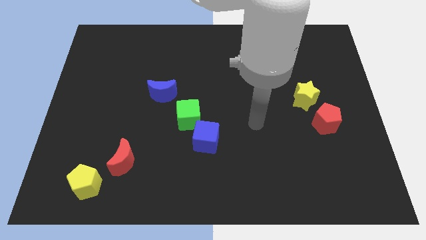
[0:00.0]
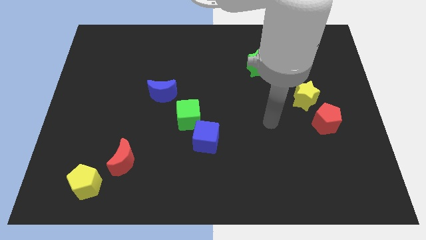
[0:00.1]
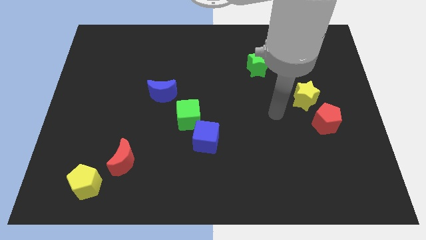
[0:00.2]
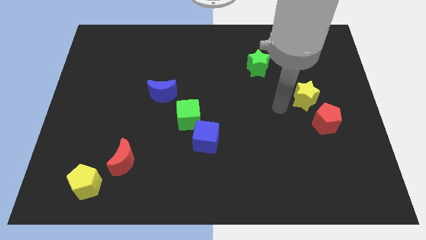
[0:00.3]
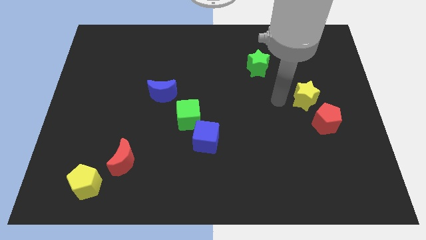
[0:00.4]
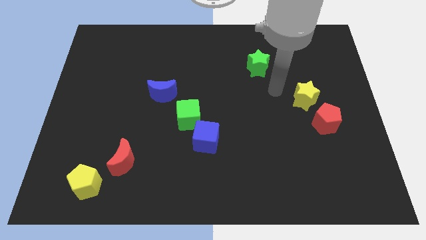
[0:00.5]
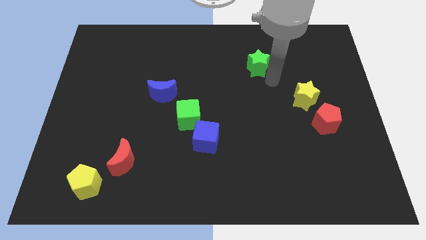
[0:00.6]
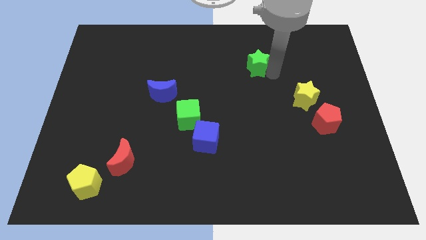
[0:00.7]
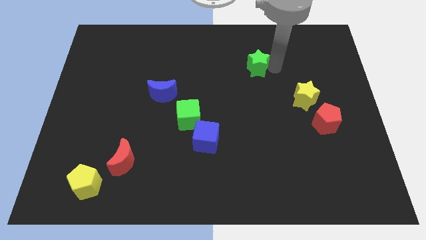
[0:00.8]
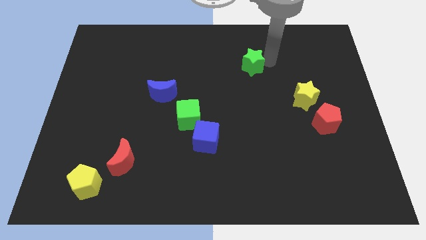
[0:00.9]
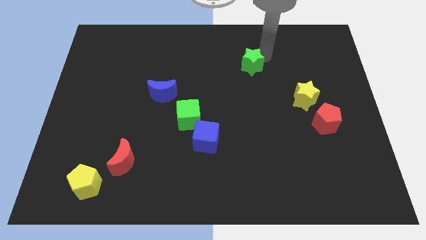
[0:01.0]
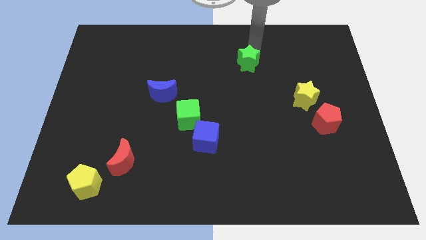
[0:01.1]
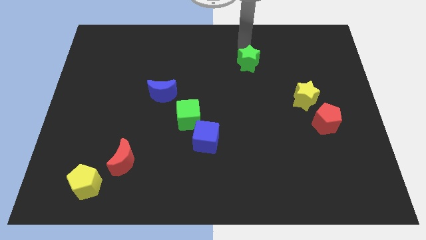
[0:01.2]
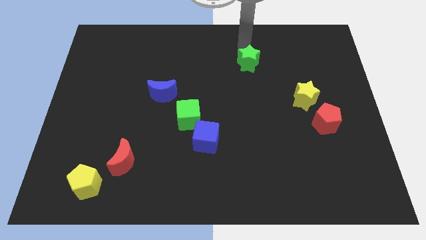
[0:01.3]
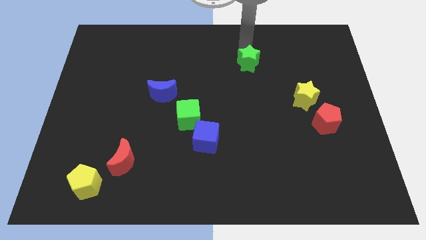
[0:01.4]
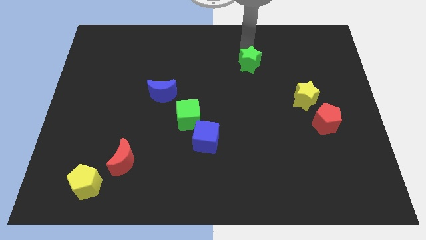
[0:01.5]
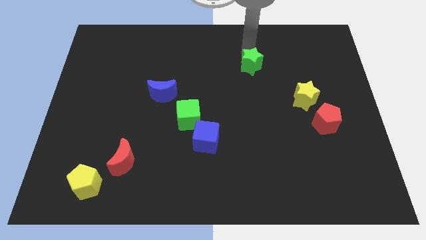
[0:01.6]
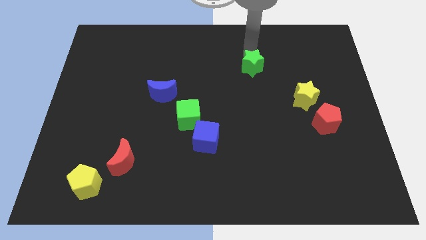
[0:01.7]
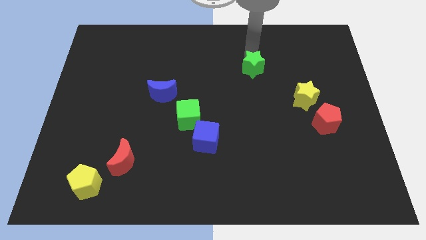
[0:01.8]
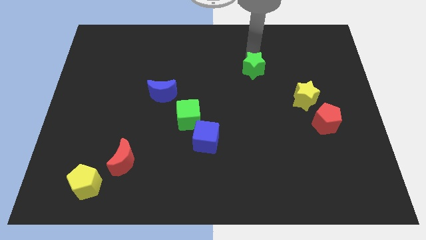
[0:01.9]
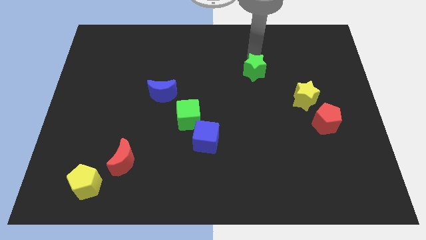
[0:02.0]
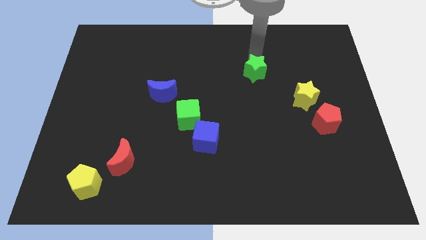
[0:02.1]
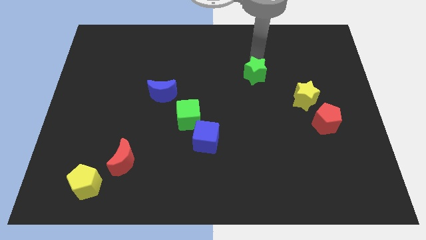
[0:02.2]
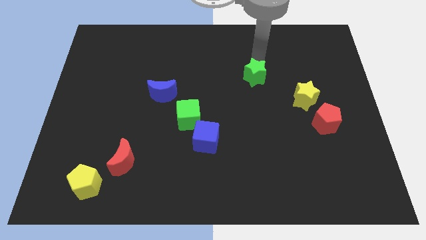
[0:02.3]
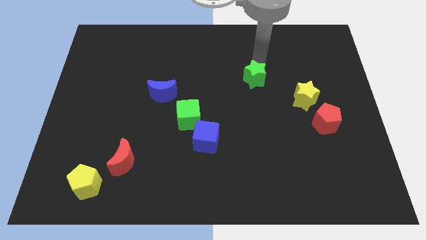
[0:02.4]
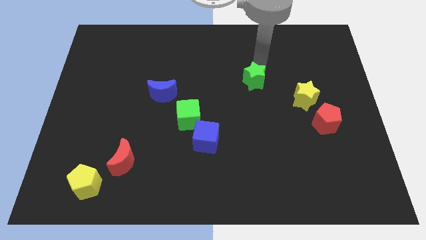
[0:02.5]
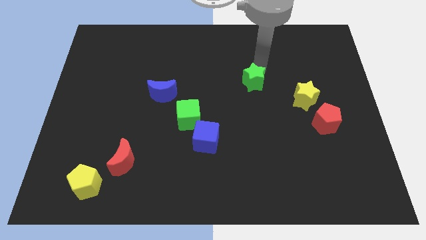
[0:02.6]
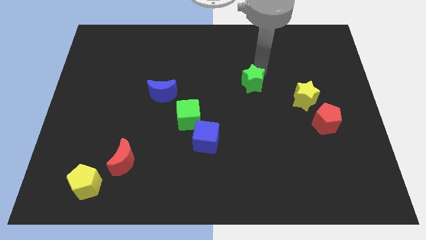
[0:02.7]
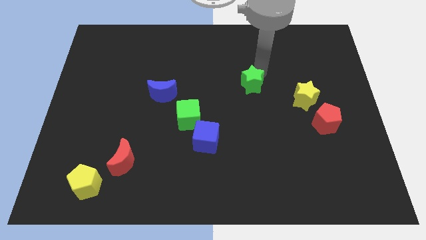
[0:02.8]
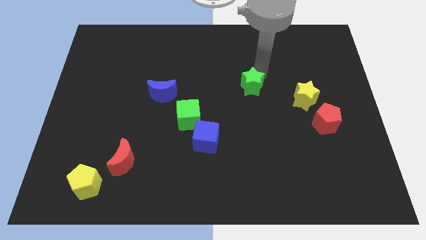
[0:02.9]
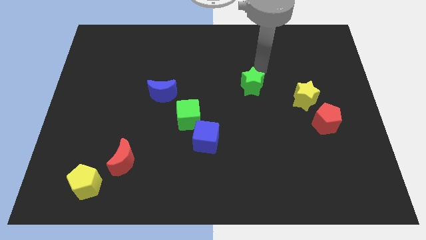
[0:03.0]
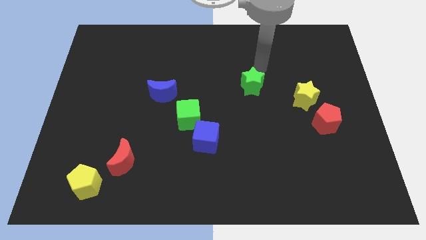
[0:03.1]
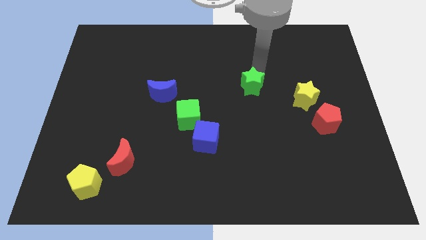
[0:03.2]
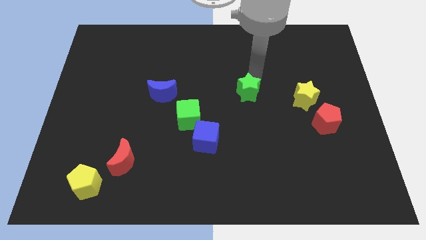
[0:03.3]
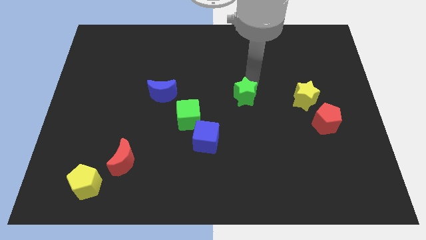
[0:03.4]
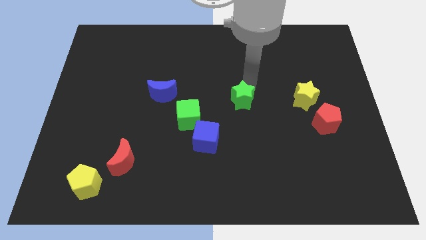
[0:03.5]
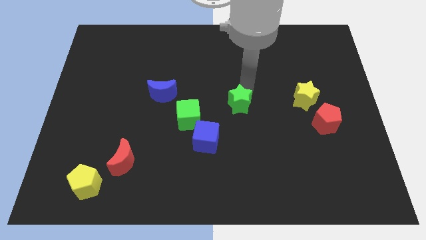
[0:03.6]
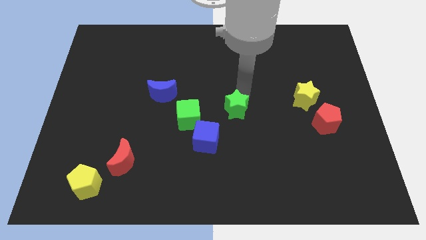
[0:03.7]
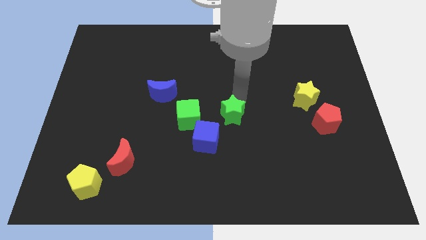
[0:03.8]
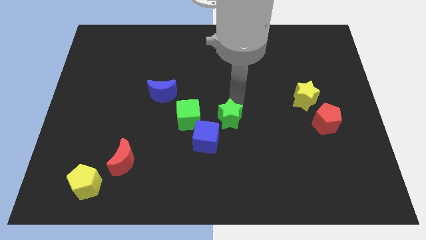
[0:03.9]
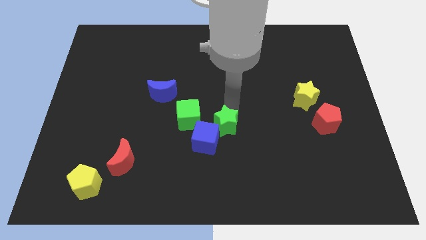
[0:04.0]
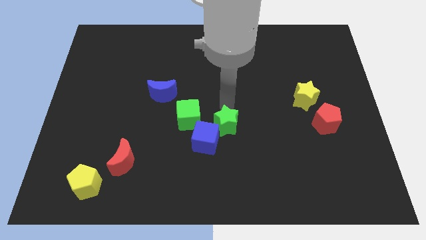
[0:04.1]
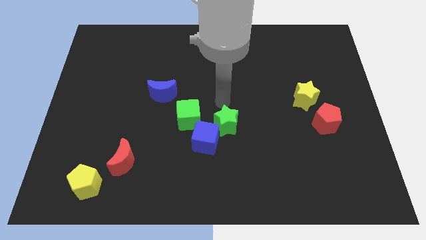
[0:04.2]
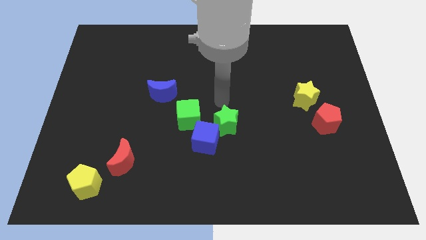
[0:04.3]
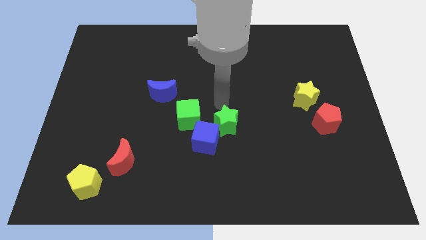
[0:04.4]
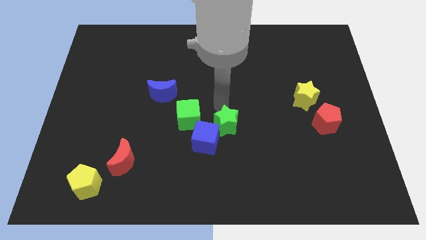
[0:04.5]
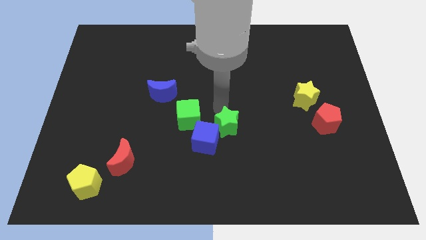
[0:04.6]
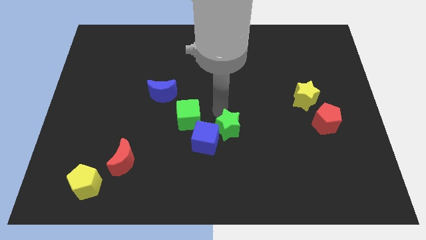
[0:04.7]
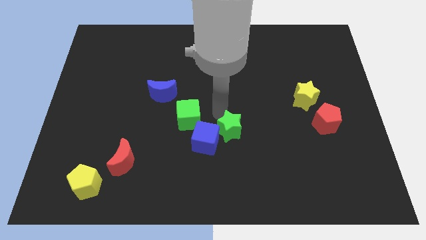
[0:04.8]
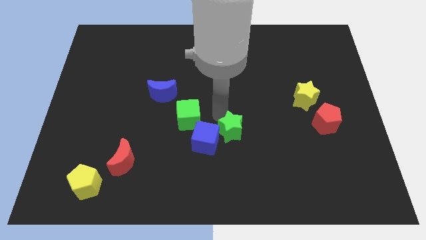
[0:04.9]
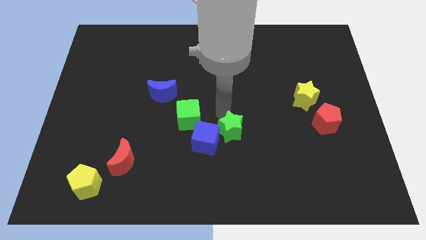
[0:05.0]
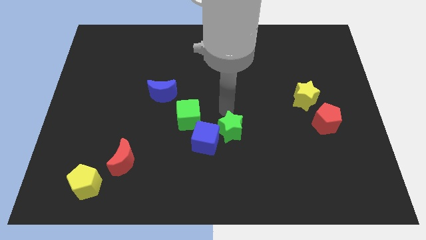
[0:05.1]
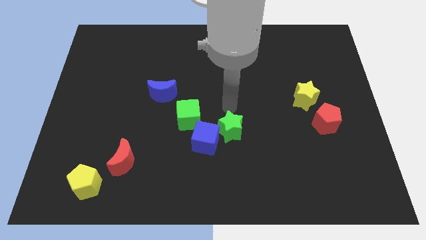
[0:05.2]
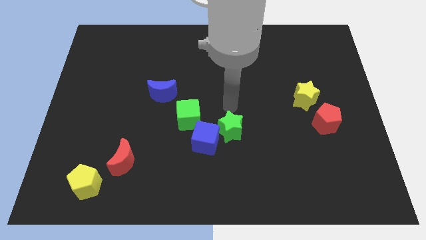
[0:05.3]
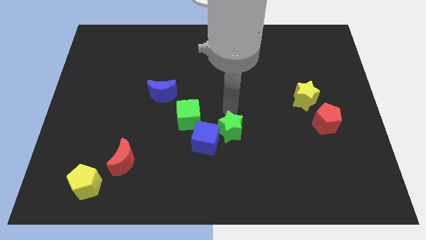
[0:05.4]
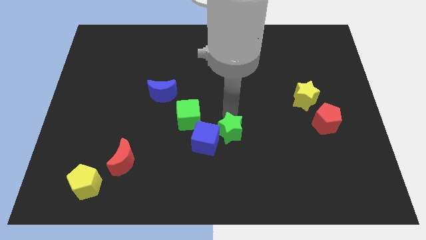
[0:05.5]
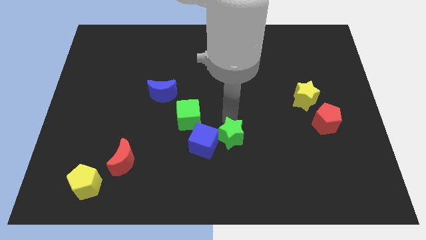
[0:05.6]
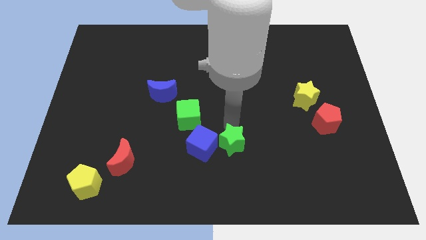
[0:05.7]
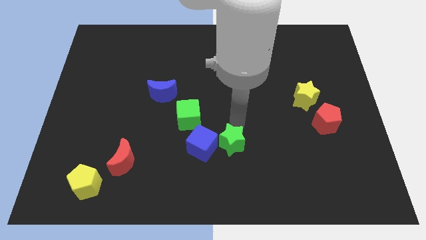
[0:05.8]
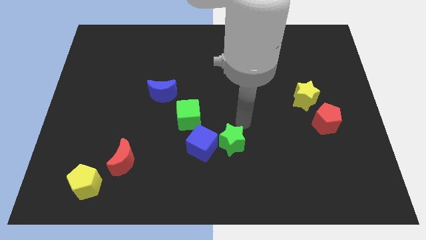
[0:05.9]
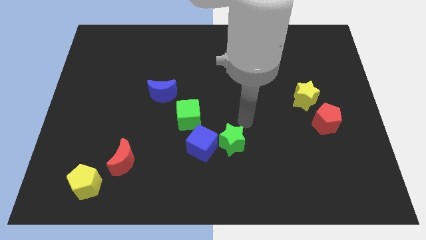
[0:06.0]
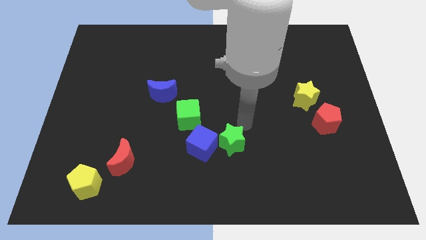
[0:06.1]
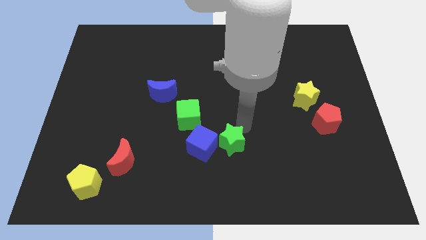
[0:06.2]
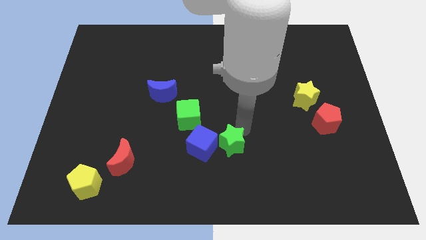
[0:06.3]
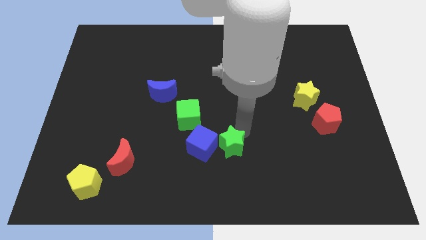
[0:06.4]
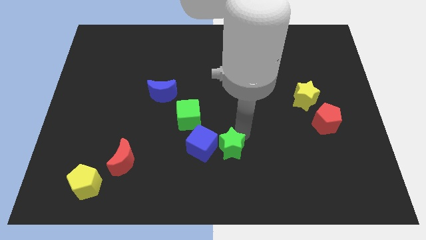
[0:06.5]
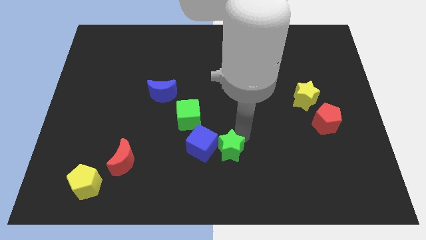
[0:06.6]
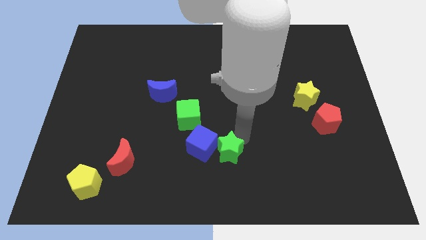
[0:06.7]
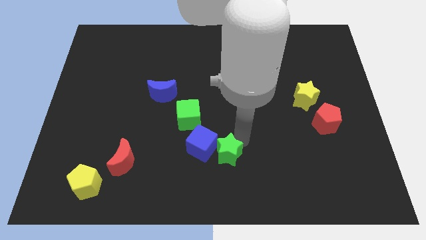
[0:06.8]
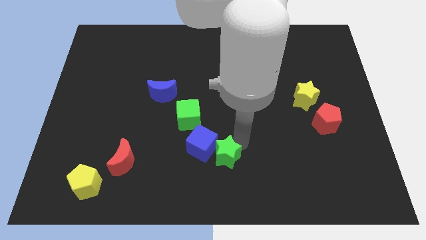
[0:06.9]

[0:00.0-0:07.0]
slide the green star to the bottom

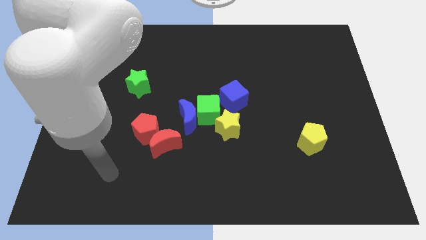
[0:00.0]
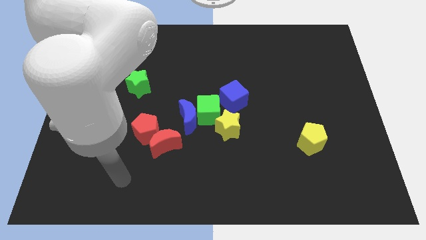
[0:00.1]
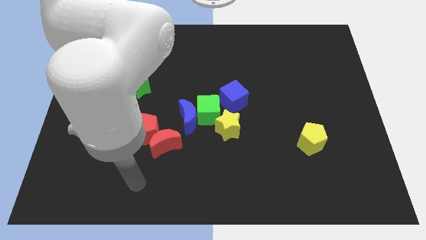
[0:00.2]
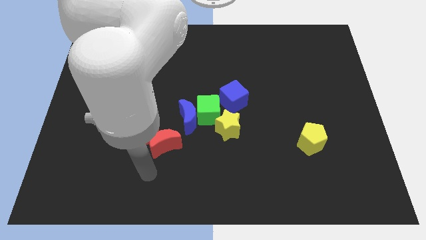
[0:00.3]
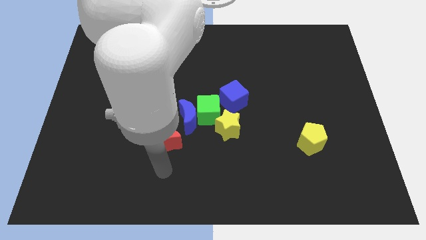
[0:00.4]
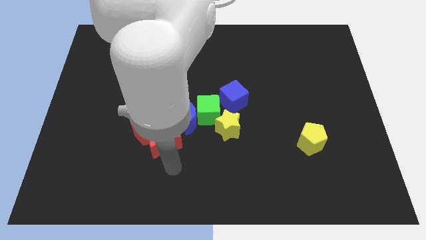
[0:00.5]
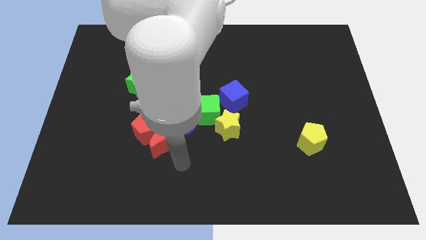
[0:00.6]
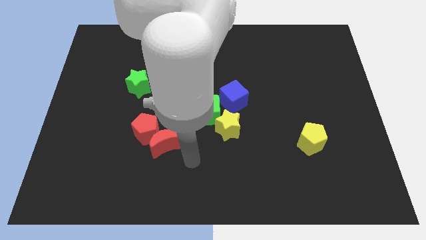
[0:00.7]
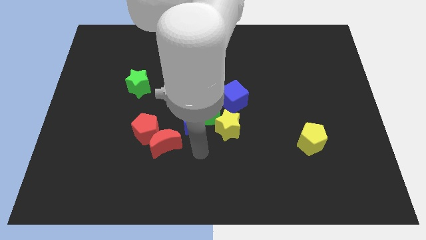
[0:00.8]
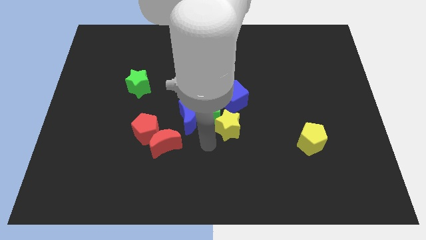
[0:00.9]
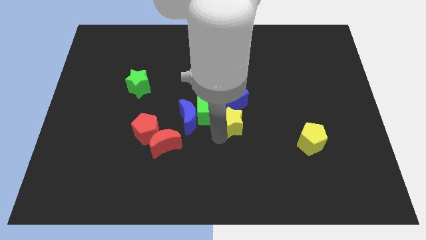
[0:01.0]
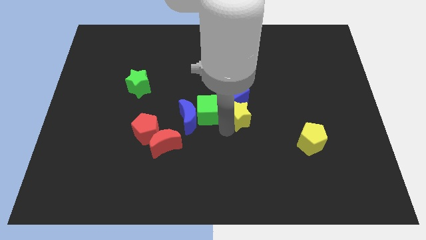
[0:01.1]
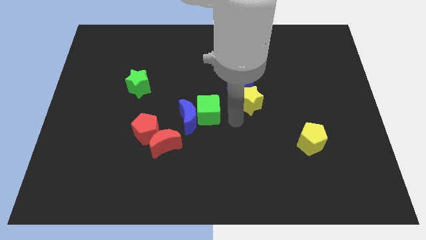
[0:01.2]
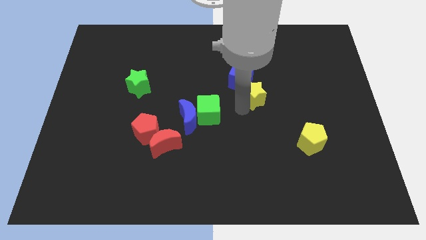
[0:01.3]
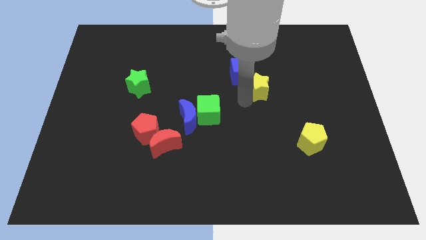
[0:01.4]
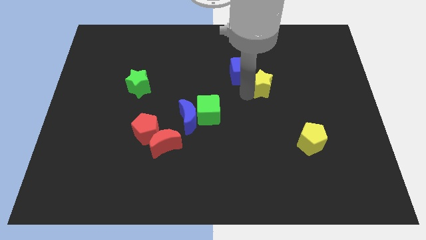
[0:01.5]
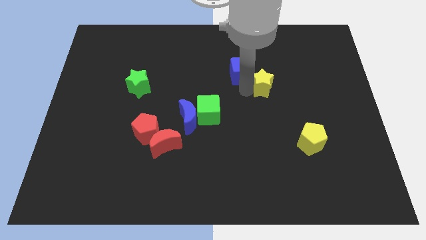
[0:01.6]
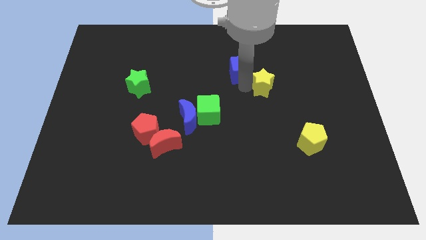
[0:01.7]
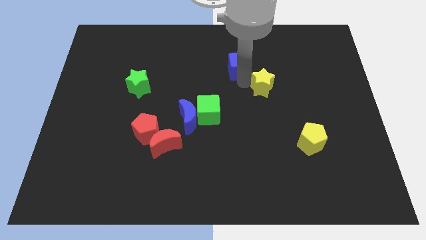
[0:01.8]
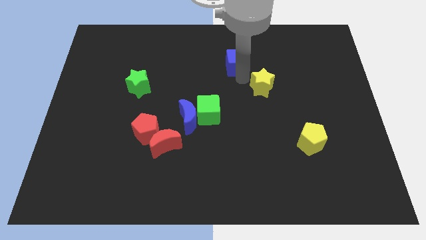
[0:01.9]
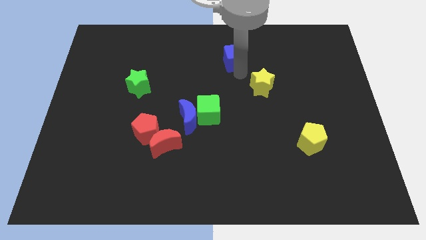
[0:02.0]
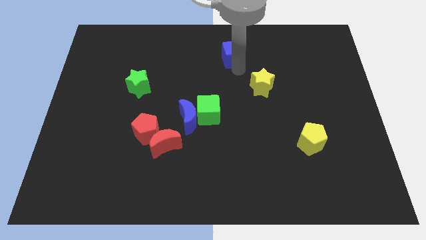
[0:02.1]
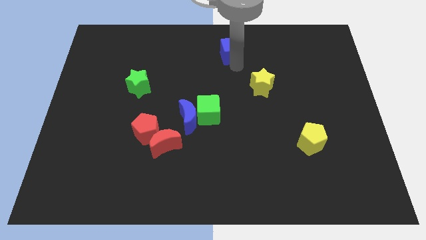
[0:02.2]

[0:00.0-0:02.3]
push the blue cube to the towards your base
